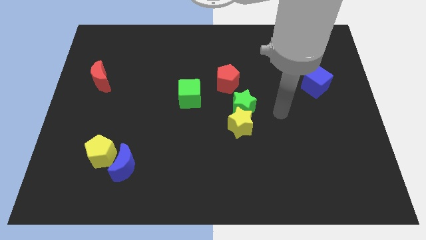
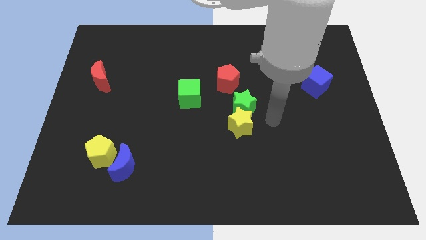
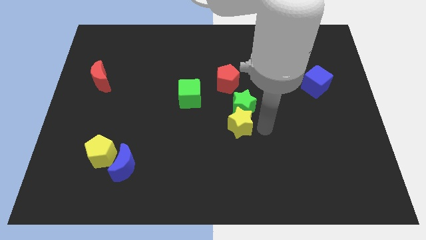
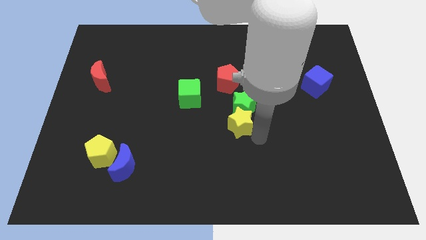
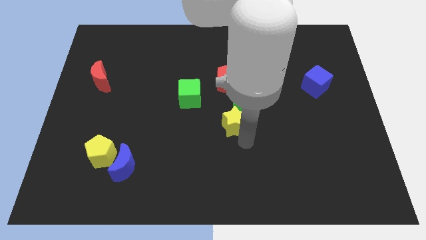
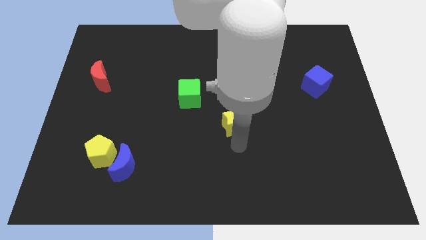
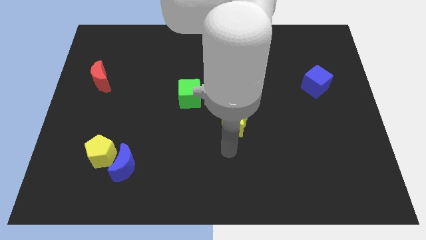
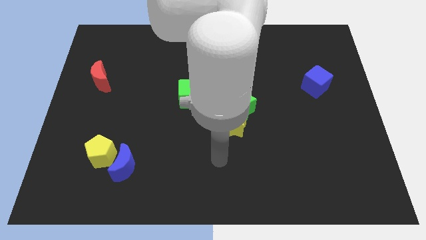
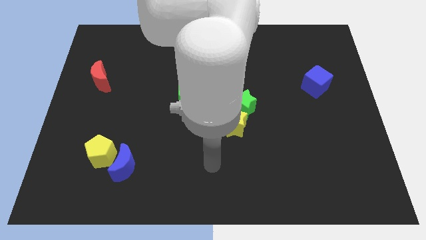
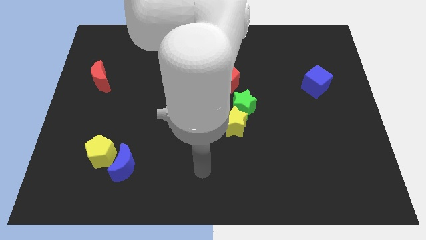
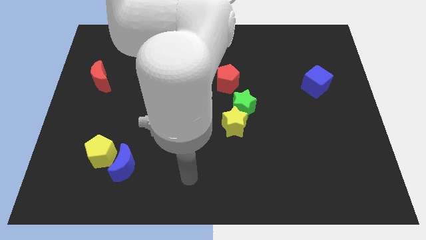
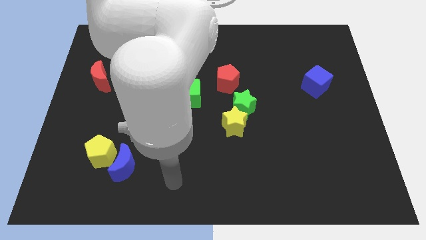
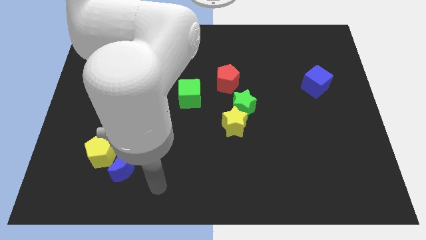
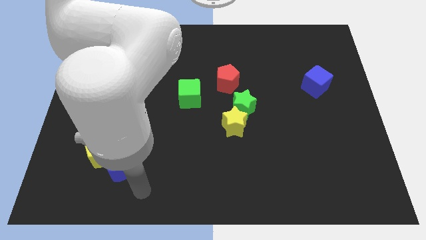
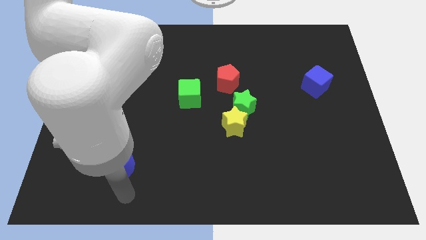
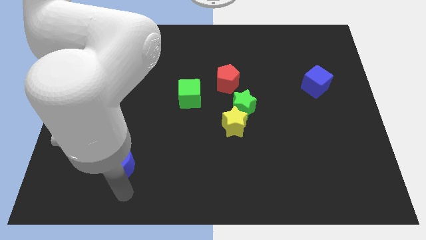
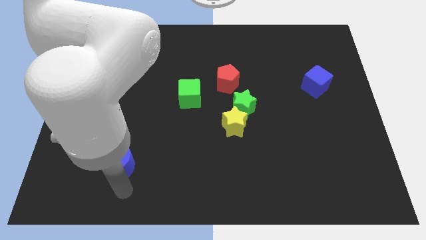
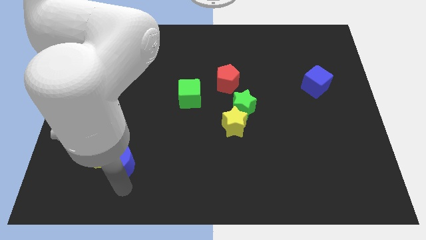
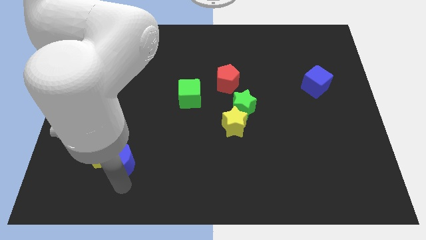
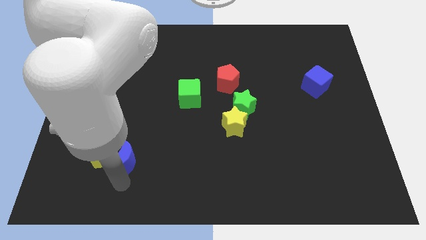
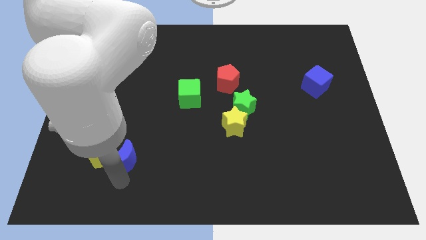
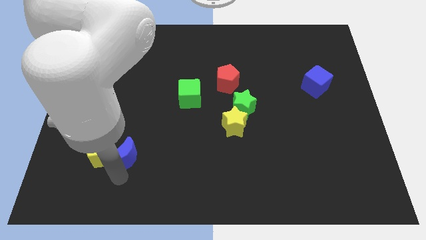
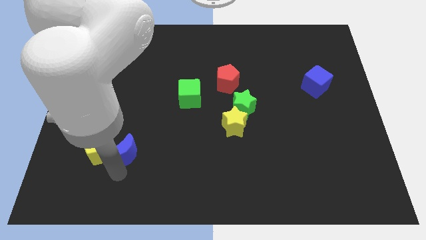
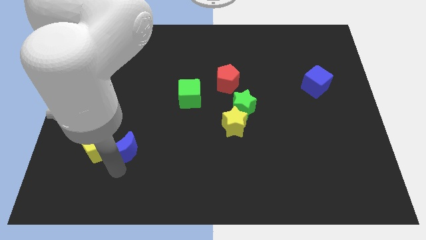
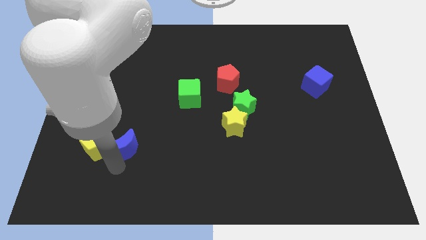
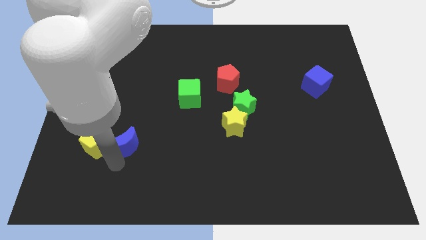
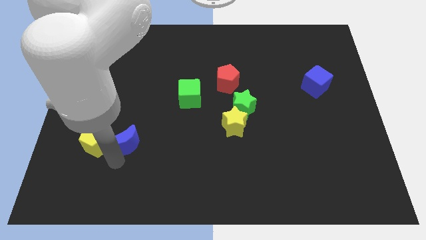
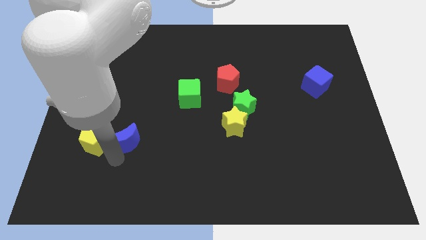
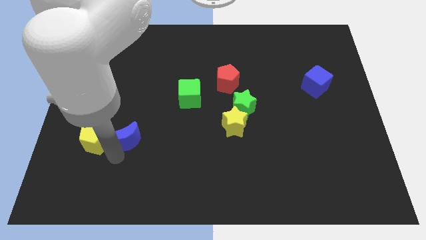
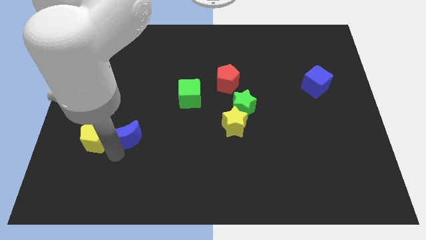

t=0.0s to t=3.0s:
slightly push the blue moon up

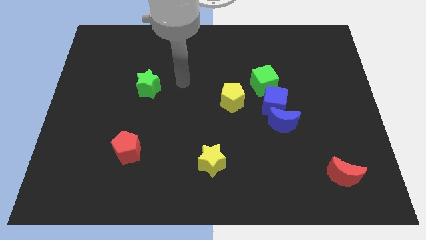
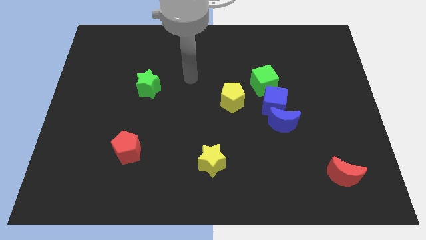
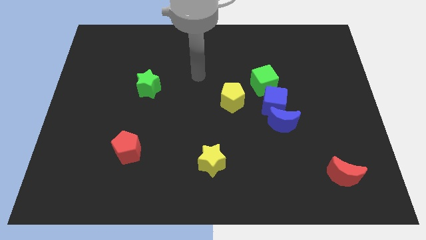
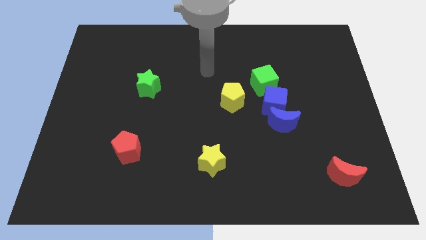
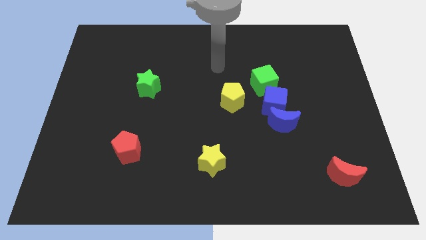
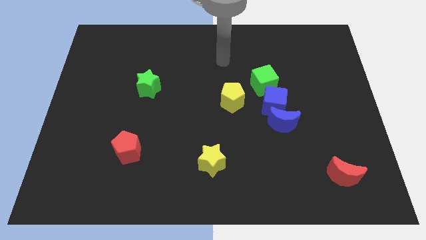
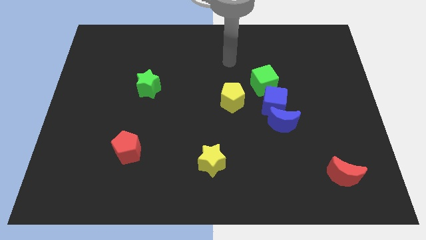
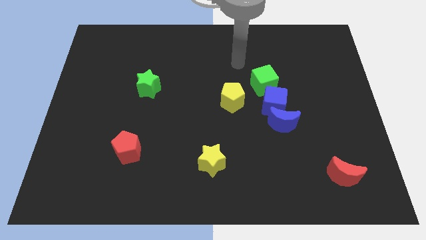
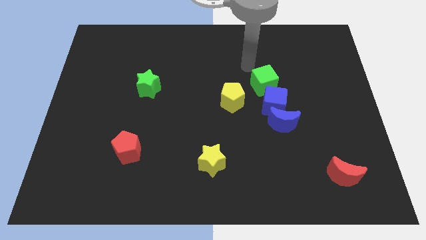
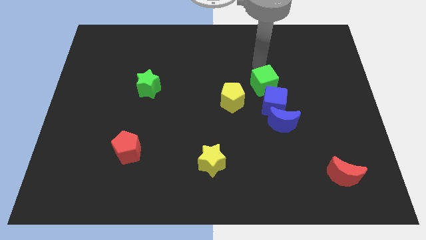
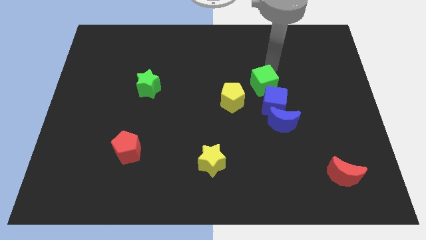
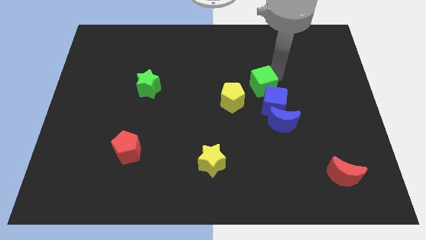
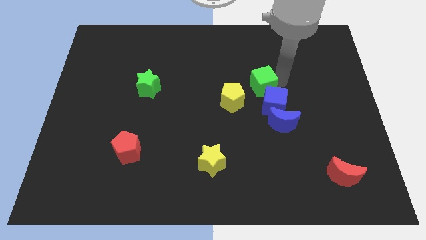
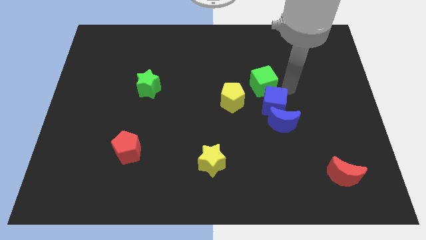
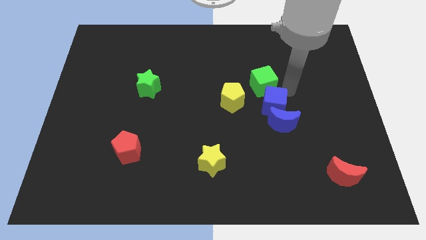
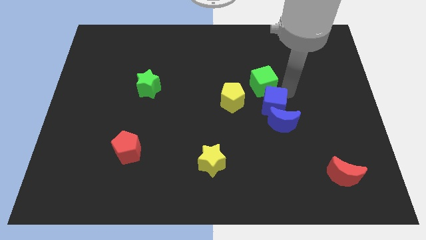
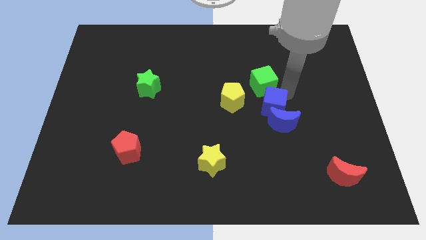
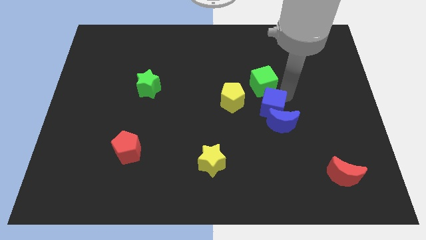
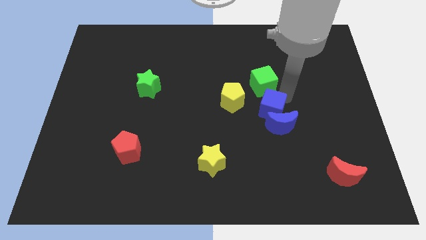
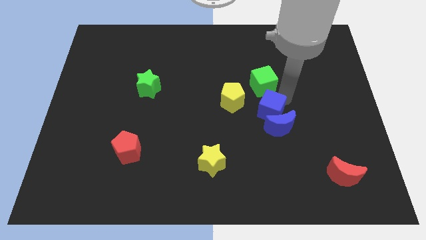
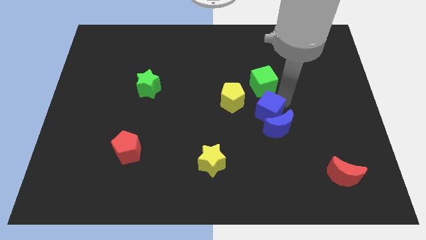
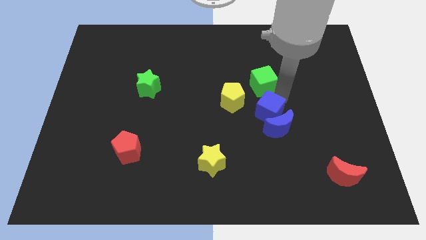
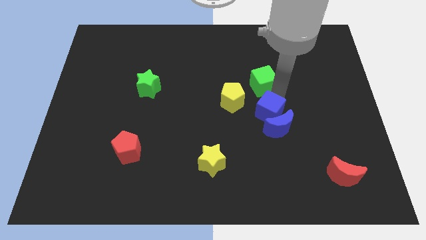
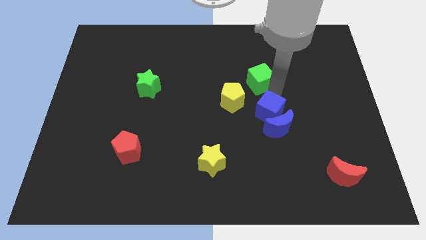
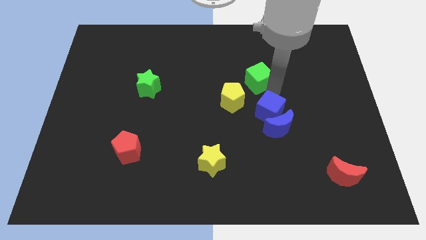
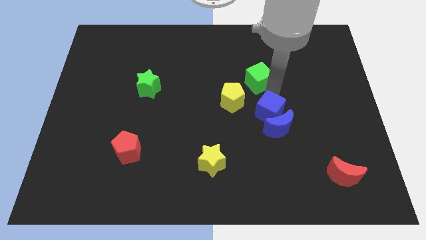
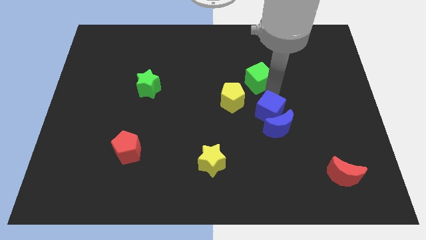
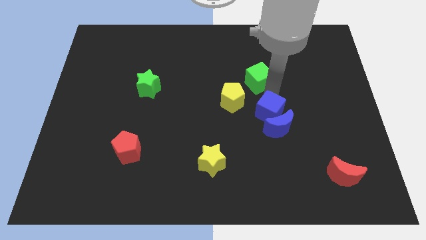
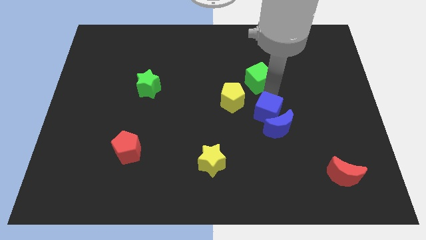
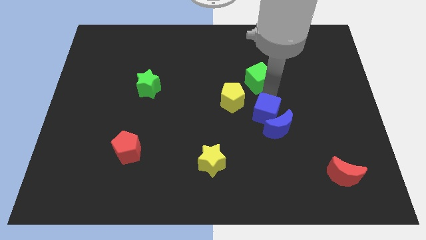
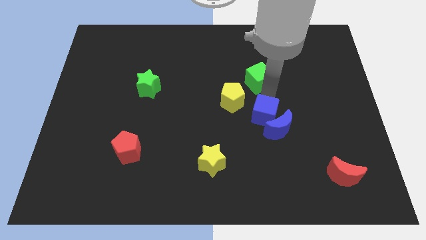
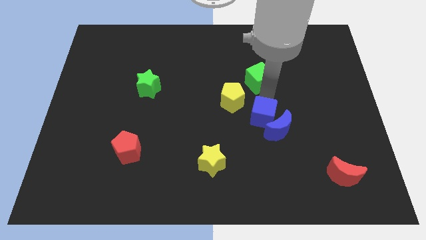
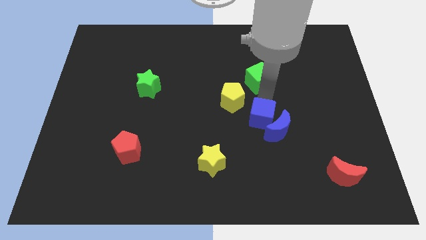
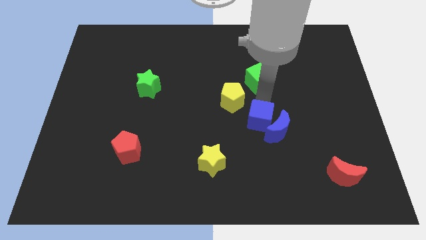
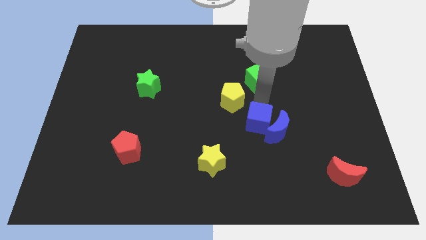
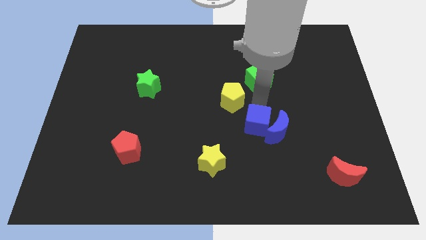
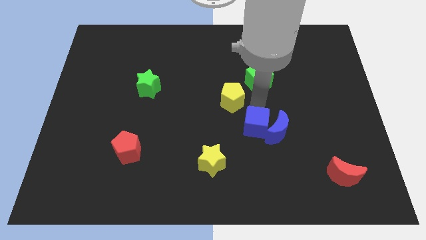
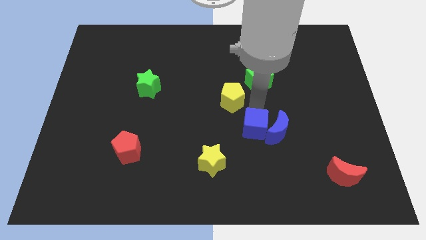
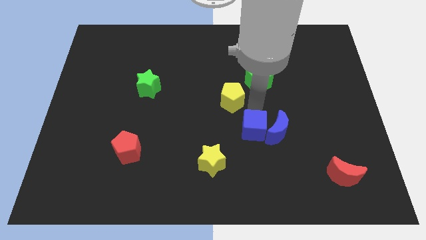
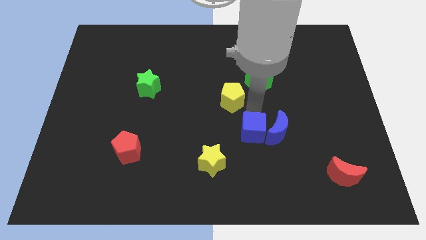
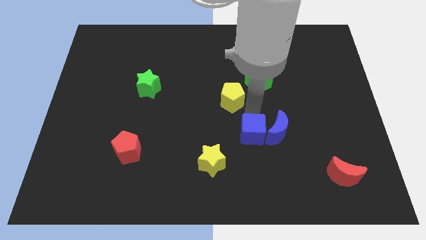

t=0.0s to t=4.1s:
slide the blue cube downwards slightly

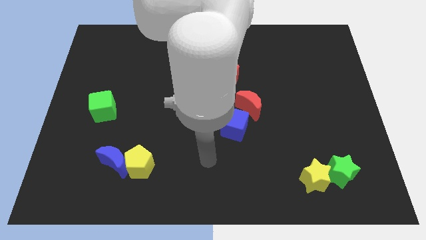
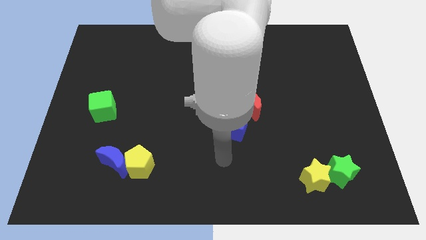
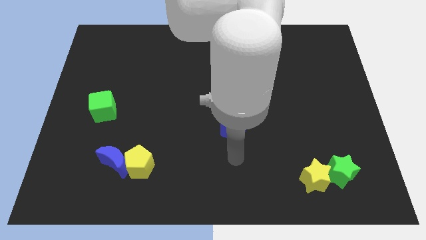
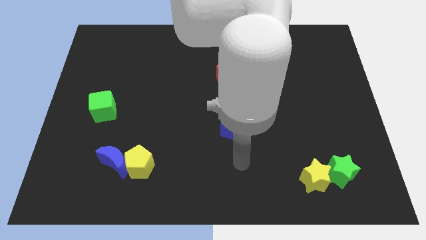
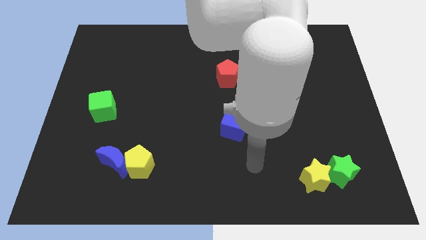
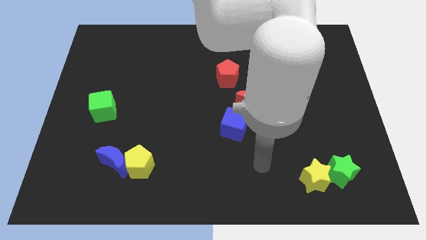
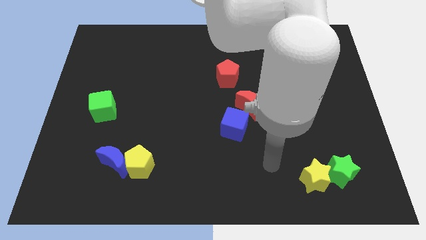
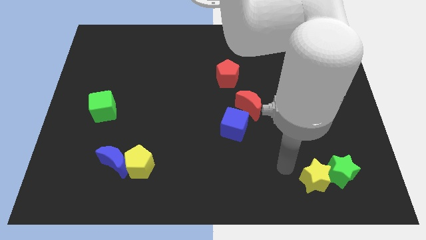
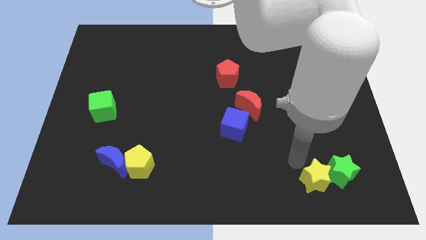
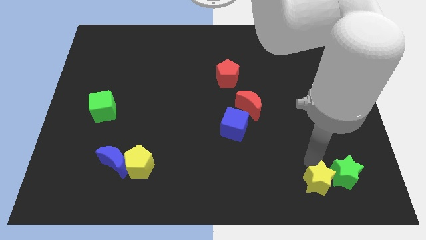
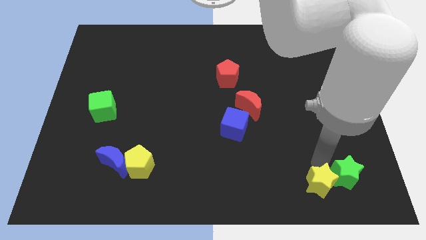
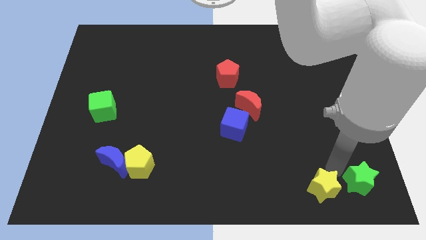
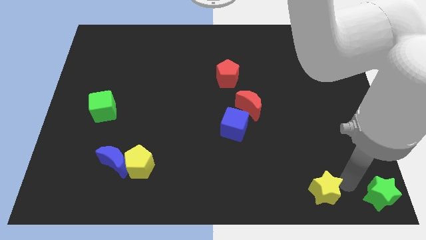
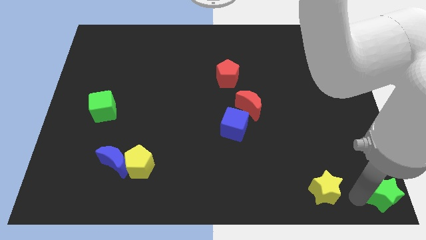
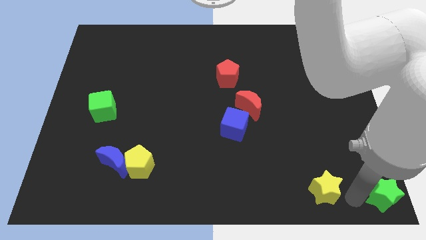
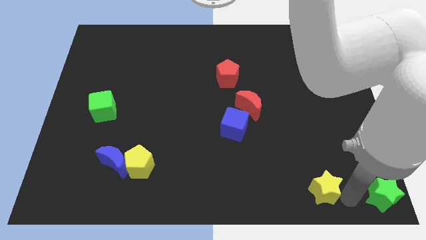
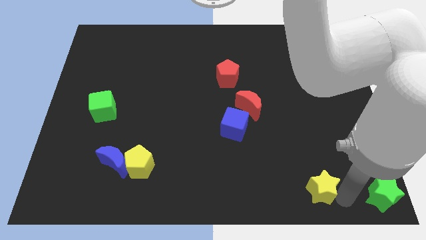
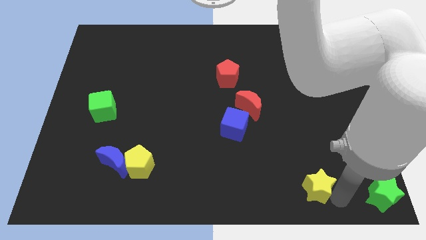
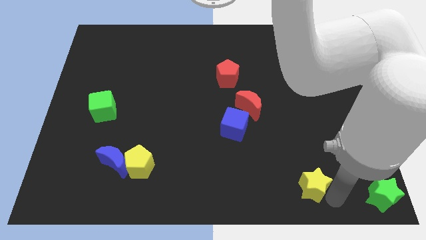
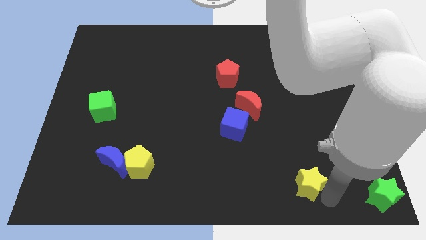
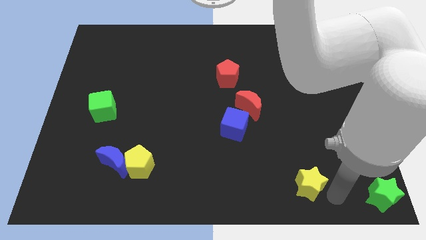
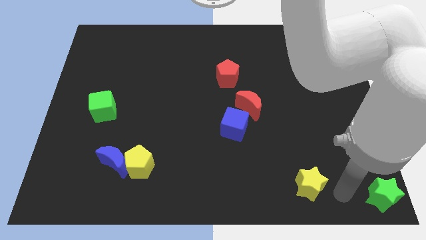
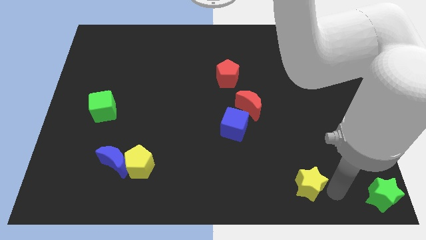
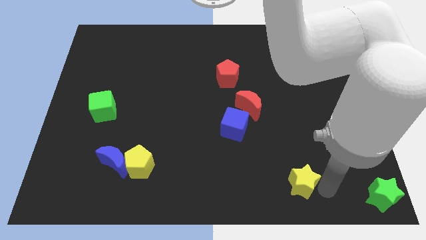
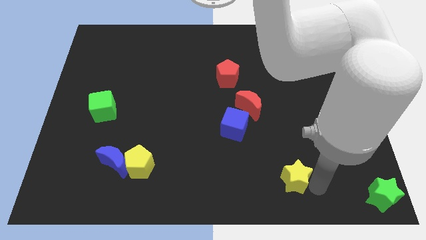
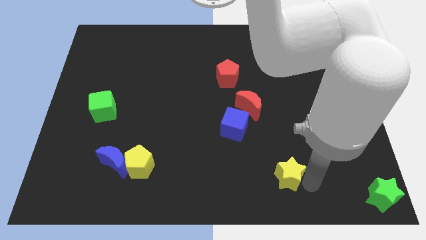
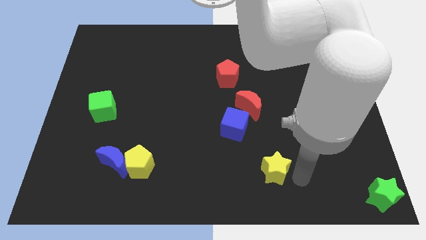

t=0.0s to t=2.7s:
slightly move the yellow star left
